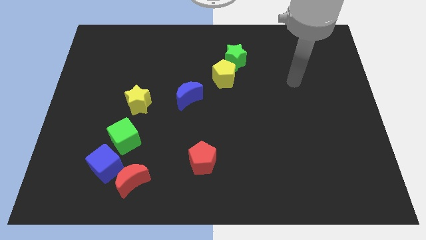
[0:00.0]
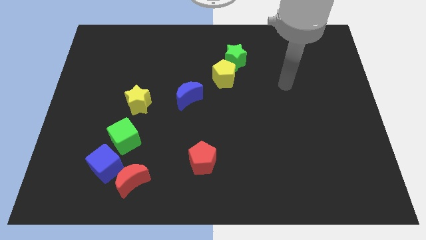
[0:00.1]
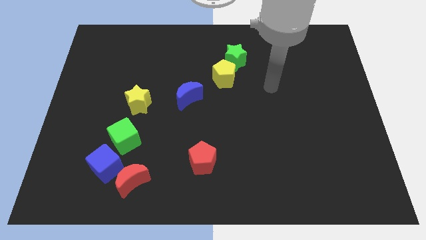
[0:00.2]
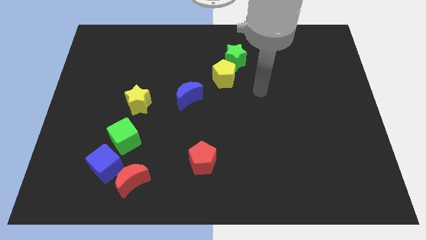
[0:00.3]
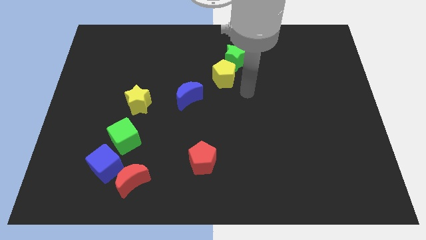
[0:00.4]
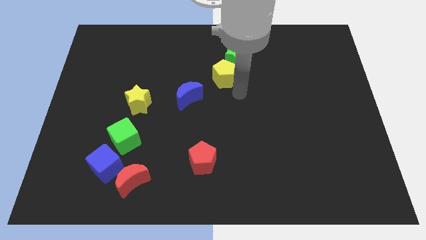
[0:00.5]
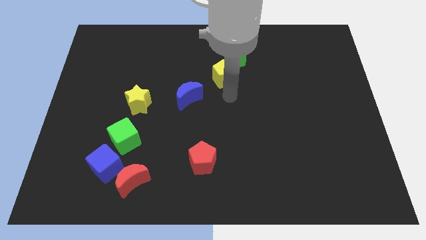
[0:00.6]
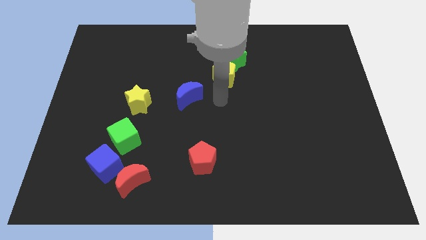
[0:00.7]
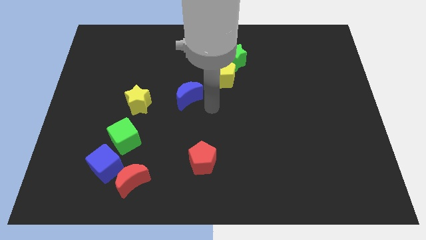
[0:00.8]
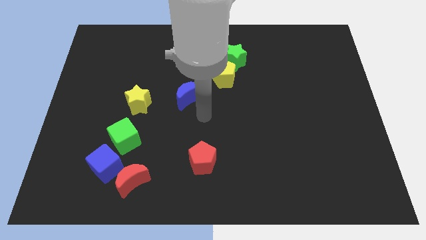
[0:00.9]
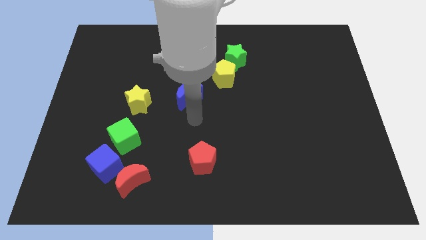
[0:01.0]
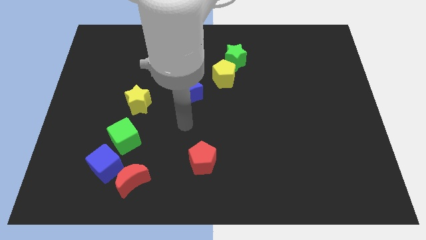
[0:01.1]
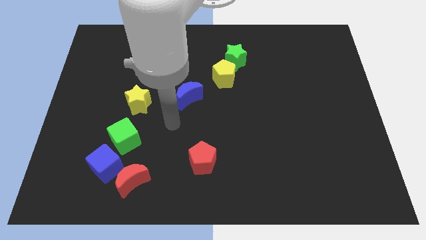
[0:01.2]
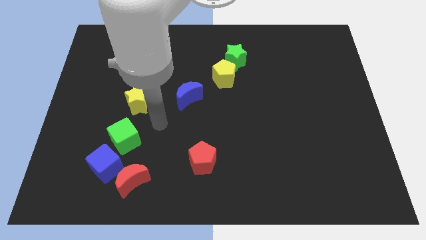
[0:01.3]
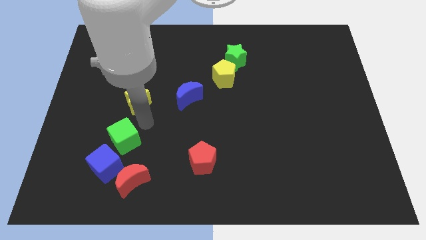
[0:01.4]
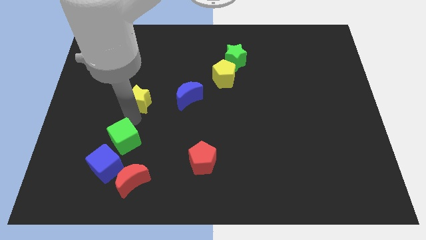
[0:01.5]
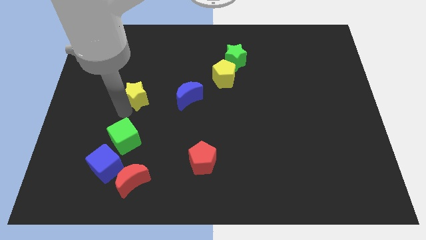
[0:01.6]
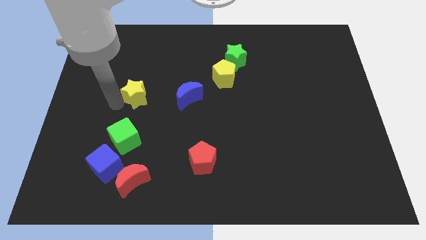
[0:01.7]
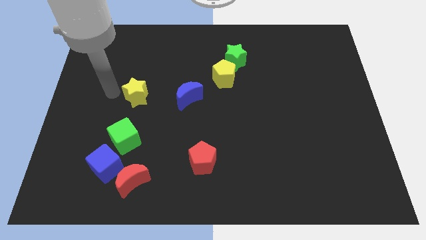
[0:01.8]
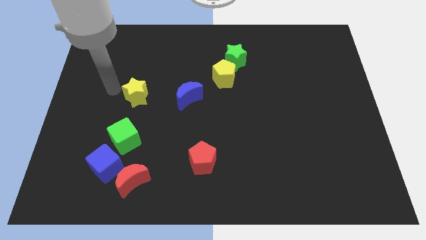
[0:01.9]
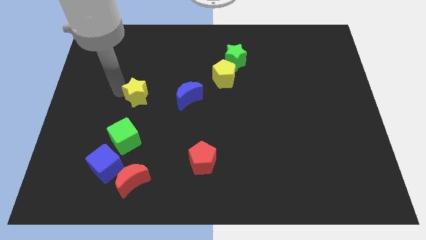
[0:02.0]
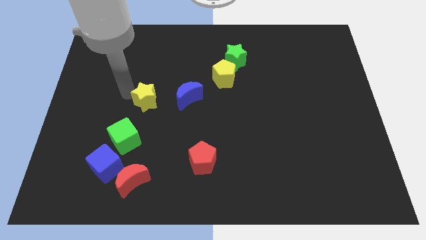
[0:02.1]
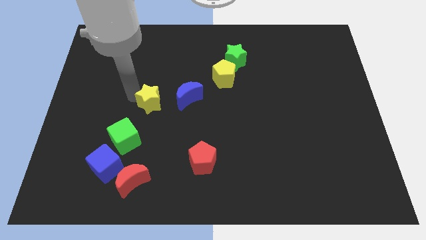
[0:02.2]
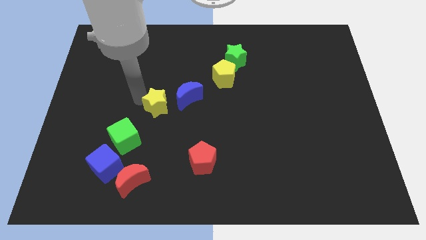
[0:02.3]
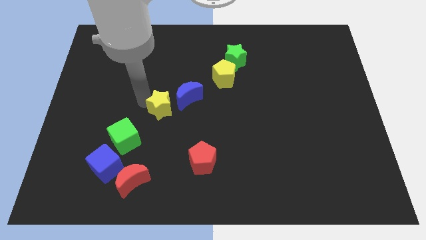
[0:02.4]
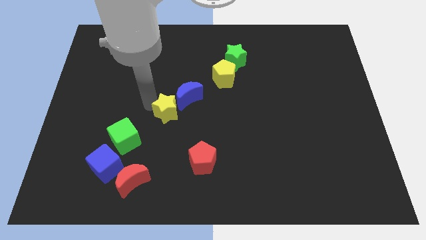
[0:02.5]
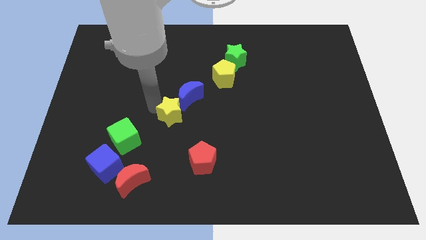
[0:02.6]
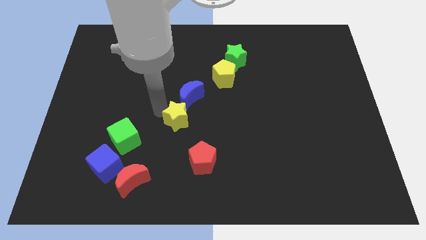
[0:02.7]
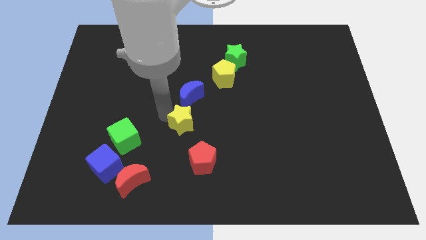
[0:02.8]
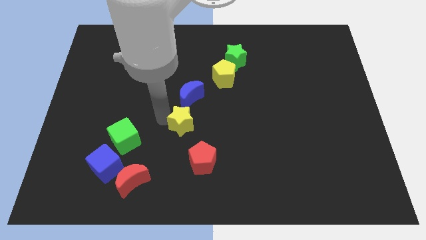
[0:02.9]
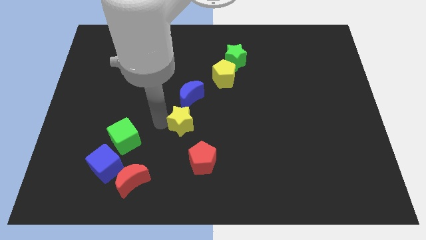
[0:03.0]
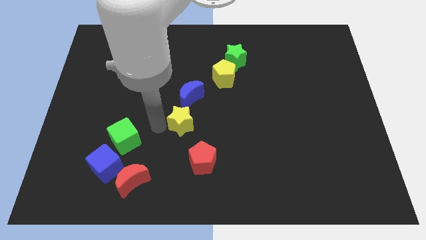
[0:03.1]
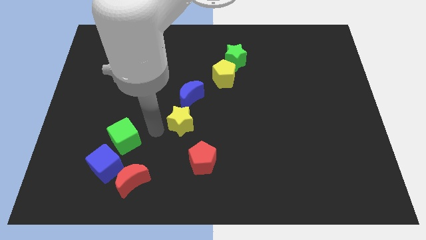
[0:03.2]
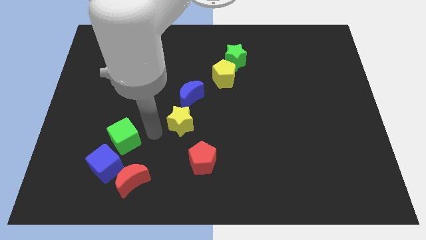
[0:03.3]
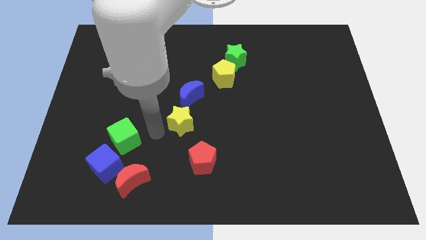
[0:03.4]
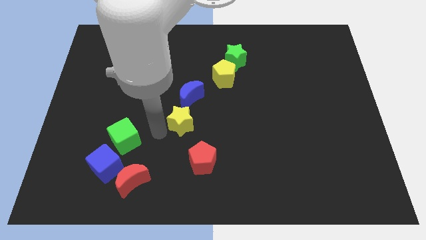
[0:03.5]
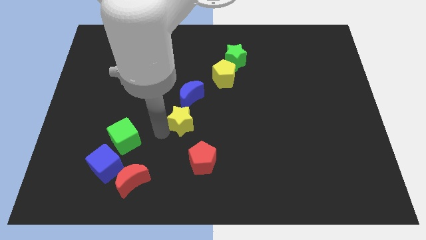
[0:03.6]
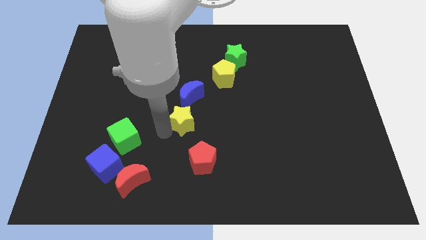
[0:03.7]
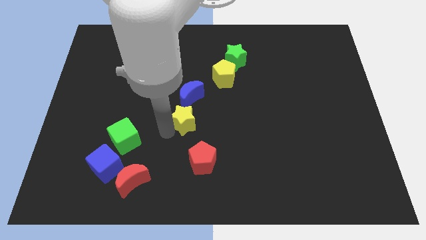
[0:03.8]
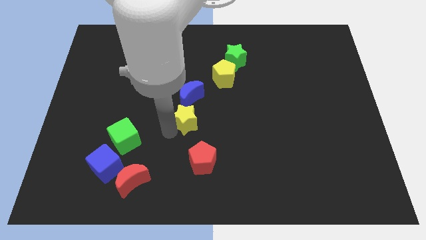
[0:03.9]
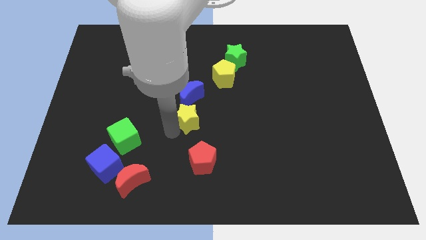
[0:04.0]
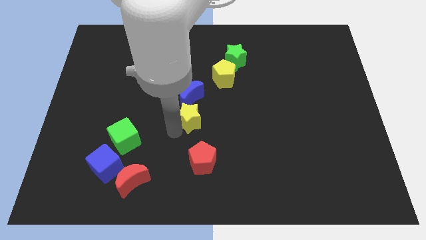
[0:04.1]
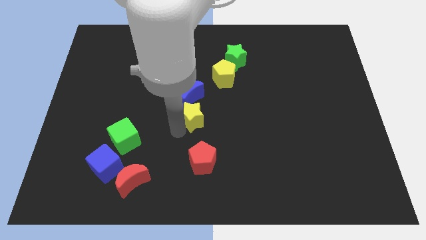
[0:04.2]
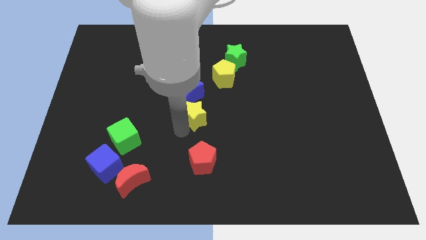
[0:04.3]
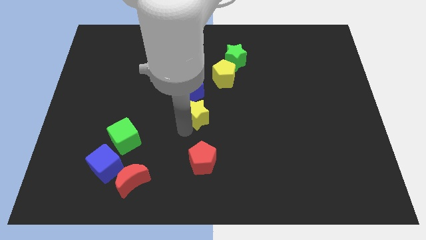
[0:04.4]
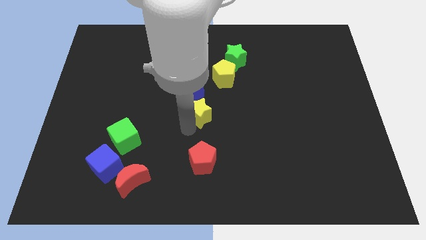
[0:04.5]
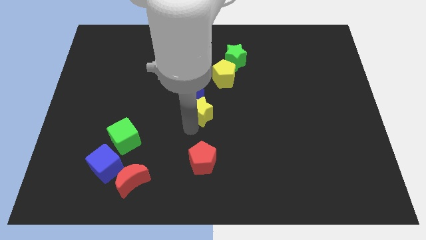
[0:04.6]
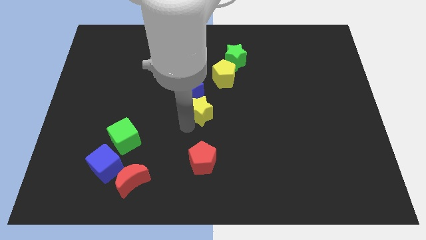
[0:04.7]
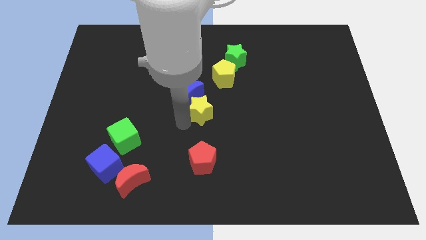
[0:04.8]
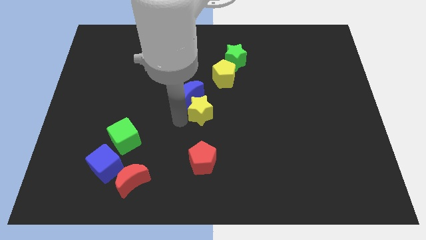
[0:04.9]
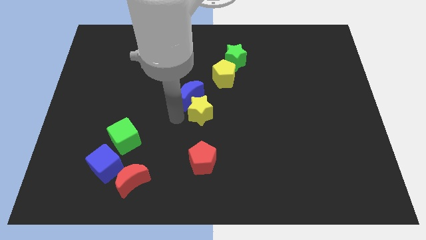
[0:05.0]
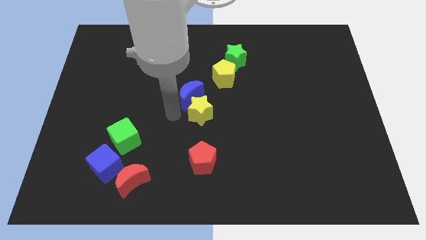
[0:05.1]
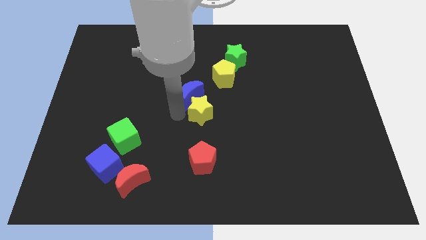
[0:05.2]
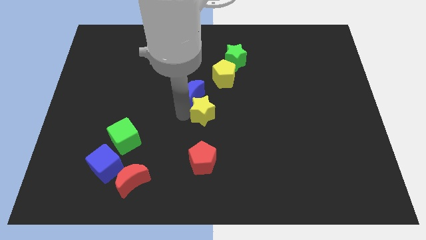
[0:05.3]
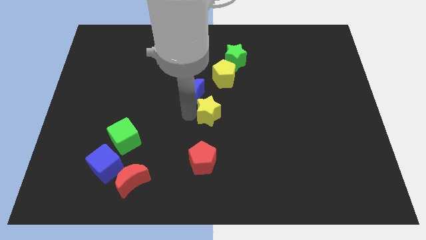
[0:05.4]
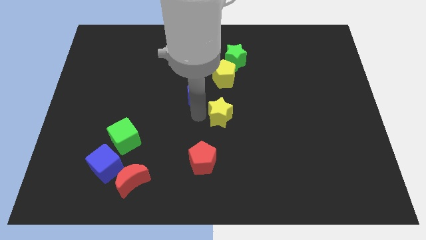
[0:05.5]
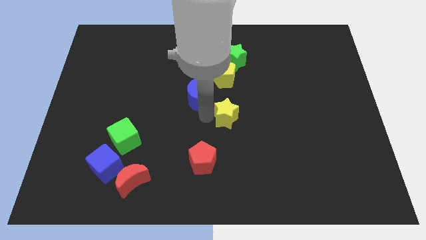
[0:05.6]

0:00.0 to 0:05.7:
move the yellow star to the right

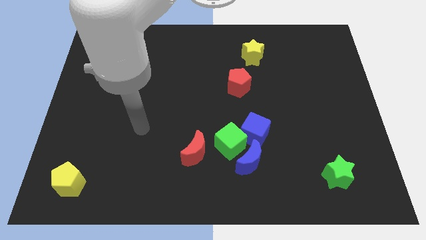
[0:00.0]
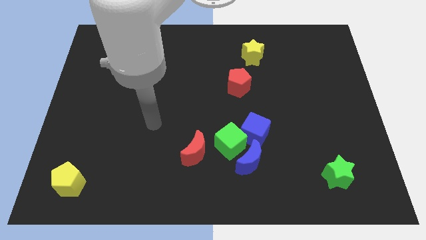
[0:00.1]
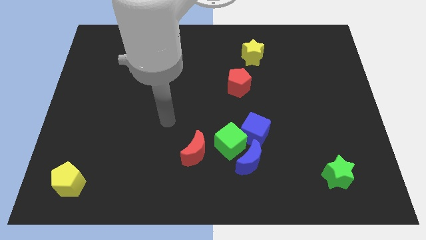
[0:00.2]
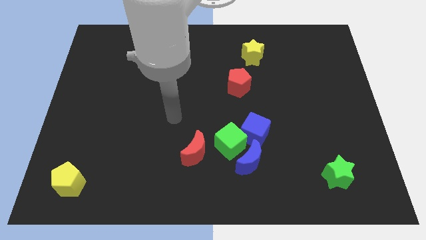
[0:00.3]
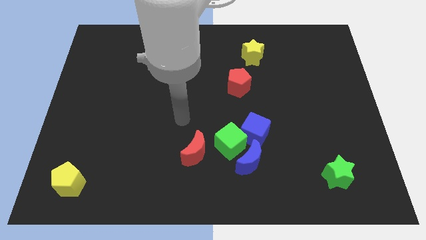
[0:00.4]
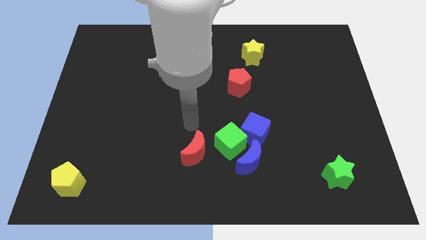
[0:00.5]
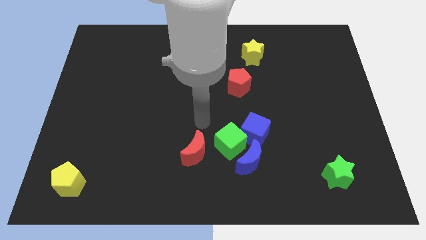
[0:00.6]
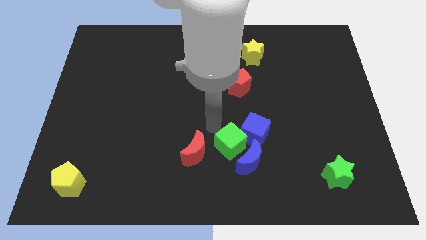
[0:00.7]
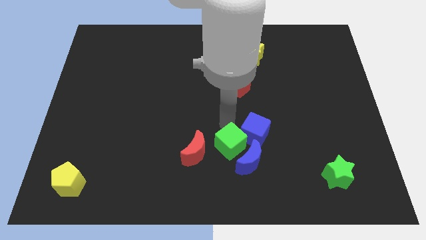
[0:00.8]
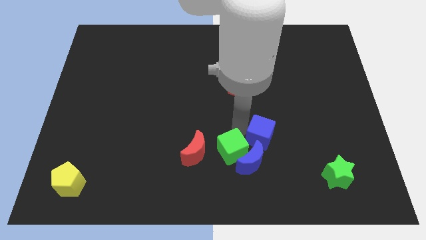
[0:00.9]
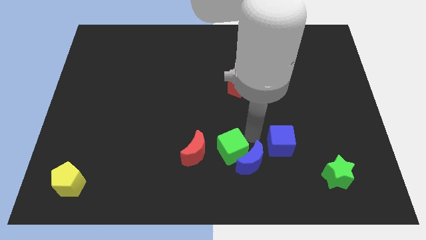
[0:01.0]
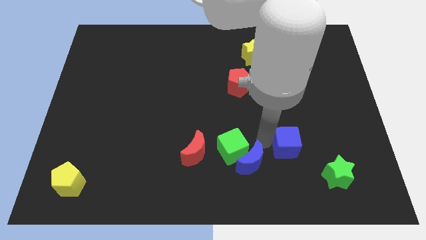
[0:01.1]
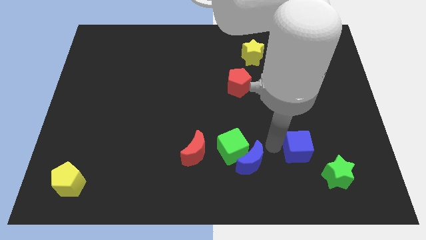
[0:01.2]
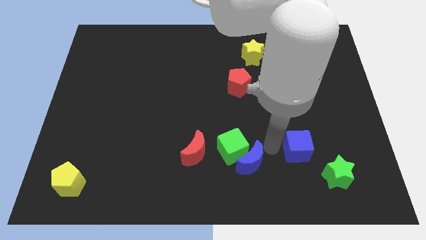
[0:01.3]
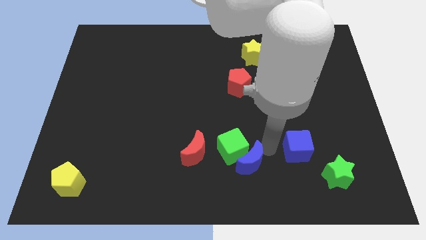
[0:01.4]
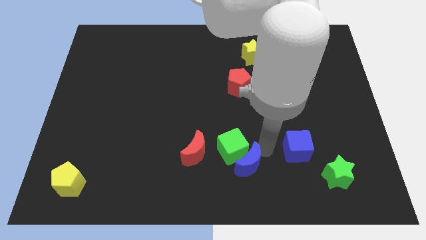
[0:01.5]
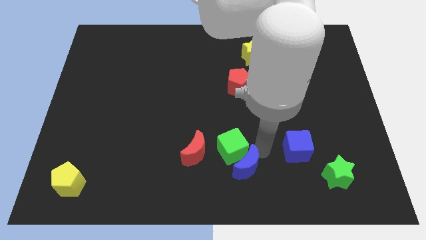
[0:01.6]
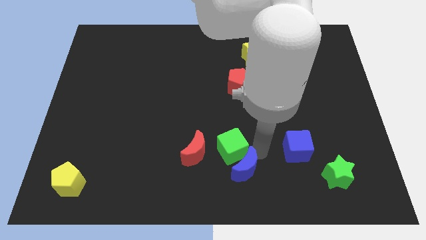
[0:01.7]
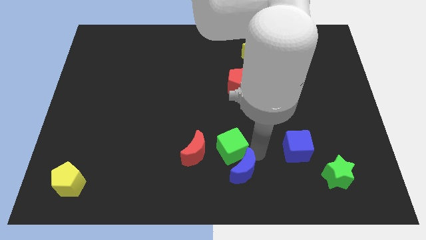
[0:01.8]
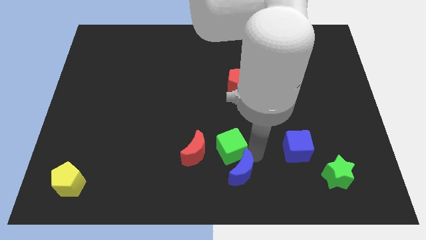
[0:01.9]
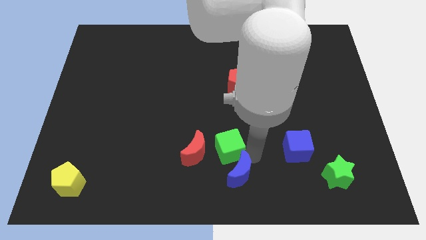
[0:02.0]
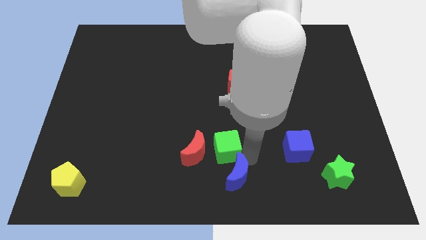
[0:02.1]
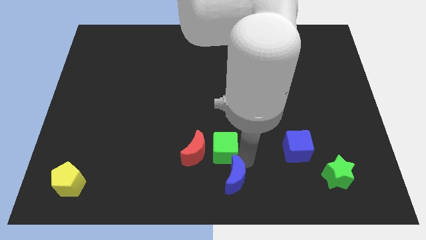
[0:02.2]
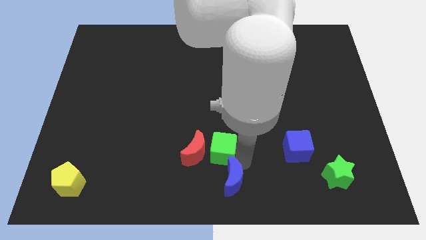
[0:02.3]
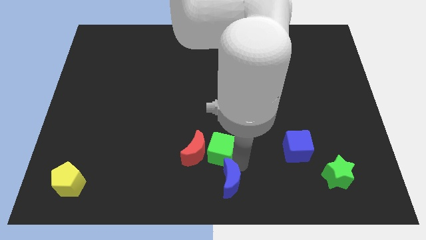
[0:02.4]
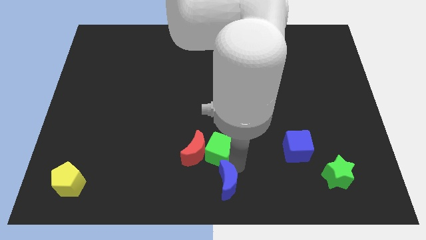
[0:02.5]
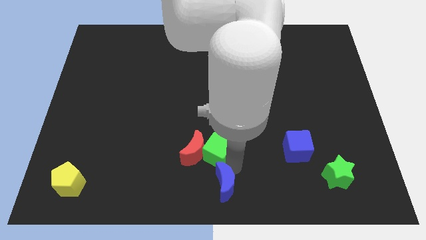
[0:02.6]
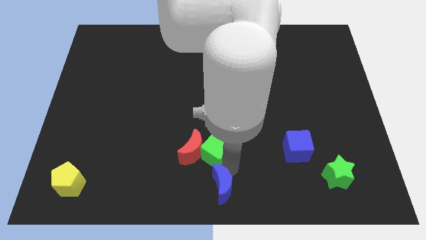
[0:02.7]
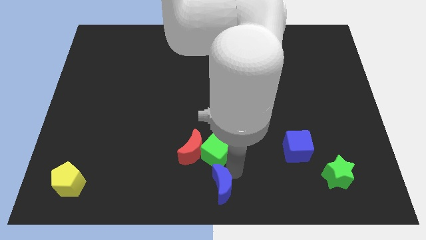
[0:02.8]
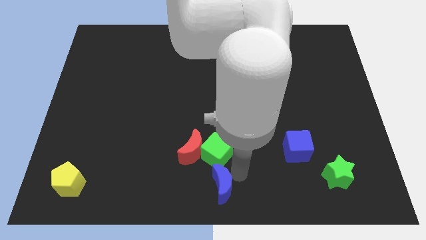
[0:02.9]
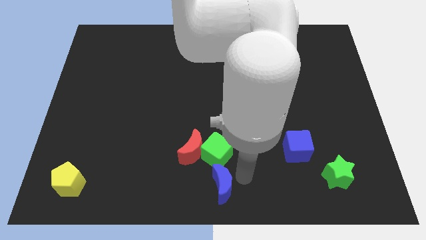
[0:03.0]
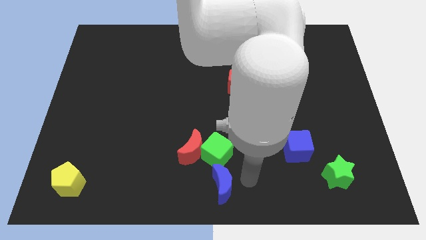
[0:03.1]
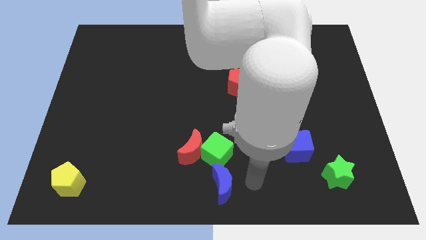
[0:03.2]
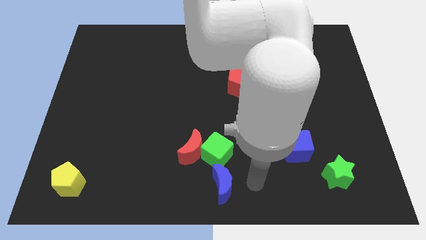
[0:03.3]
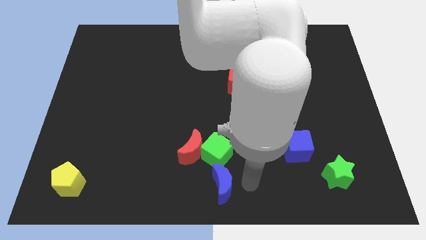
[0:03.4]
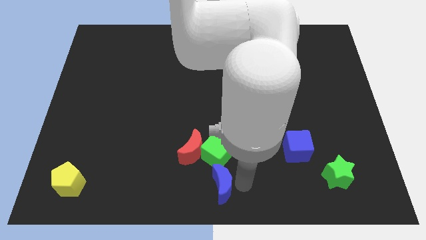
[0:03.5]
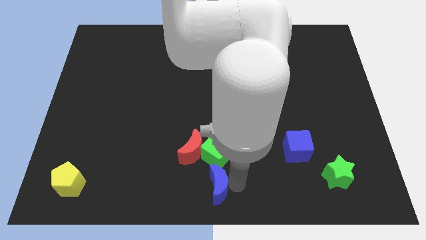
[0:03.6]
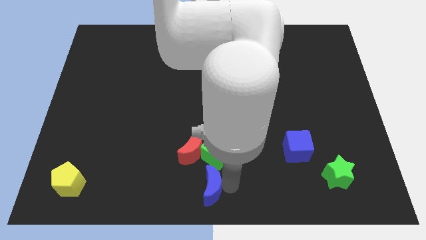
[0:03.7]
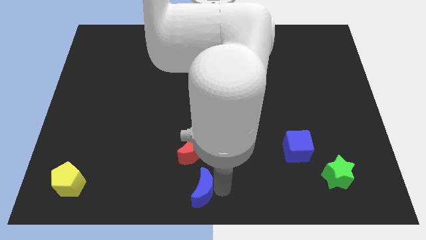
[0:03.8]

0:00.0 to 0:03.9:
slightly move the blue moon left
